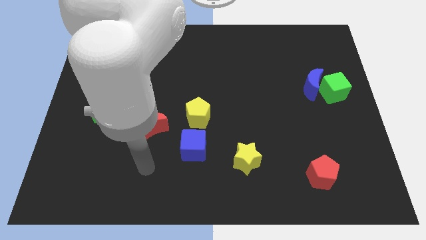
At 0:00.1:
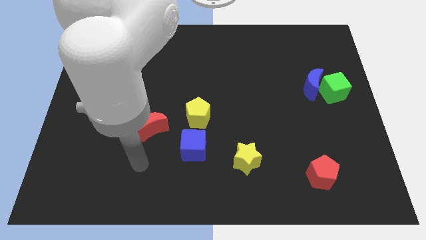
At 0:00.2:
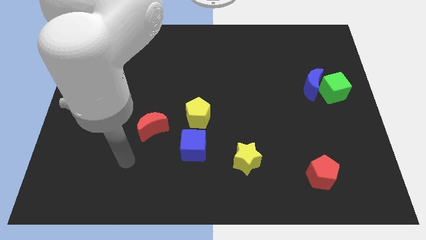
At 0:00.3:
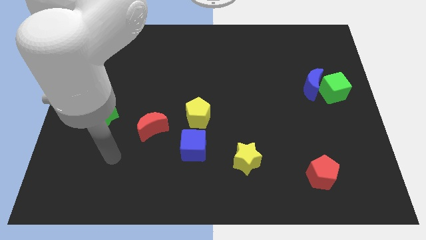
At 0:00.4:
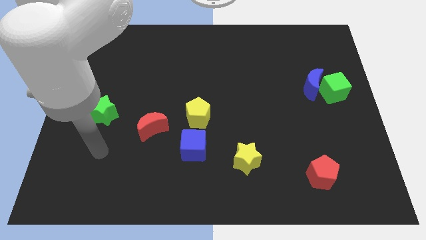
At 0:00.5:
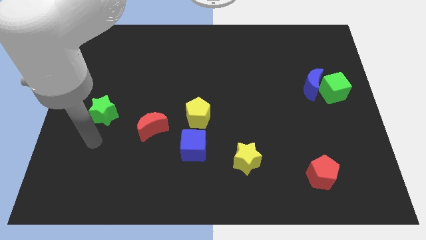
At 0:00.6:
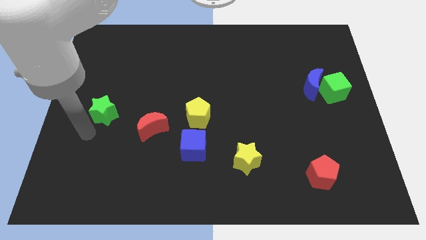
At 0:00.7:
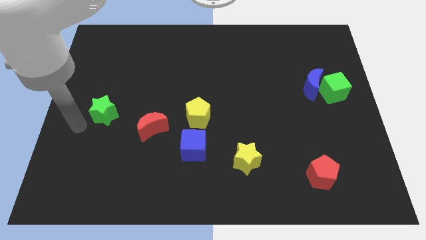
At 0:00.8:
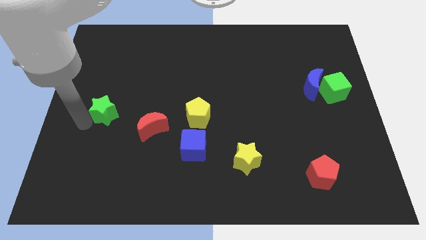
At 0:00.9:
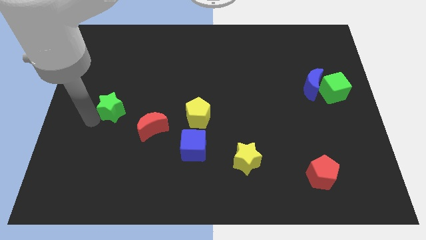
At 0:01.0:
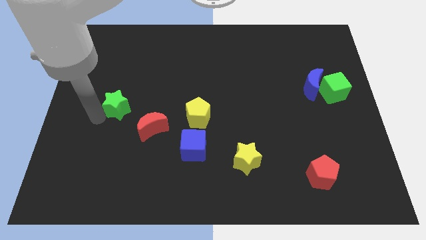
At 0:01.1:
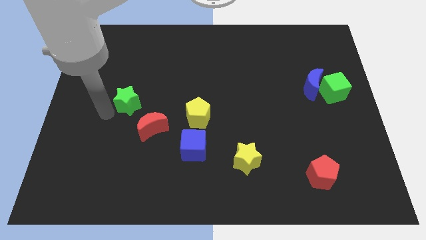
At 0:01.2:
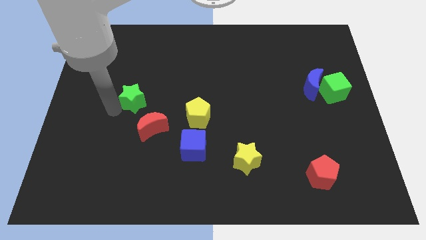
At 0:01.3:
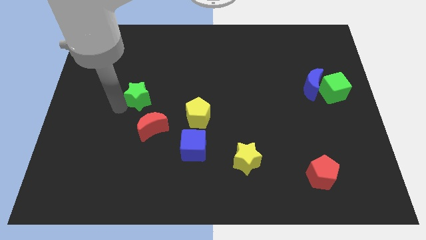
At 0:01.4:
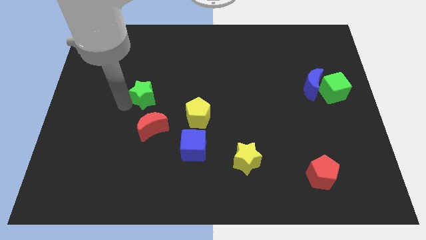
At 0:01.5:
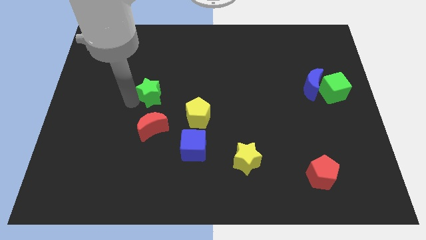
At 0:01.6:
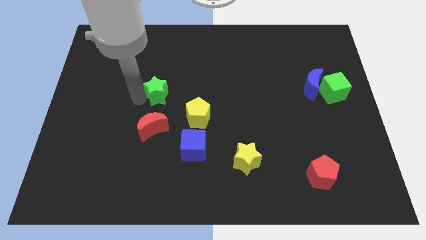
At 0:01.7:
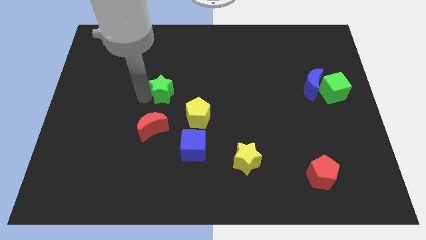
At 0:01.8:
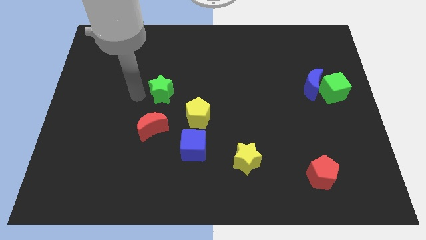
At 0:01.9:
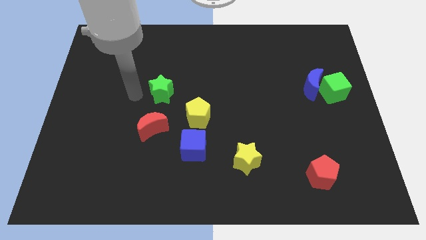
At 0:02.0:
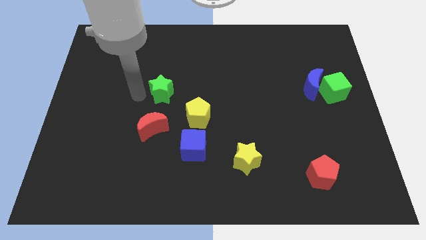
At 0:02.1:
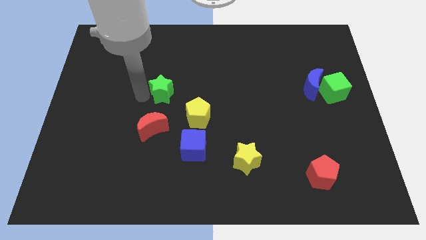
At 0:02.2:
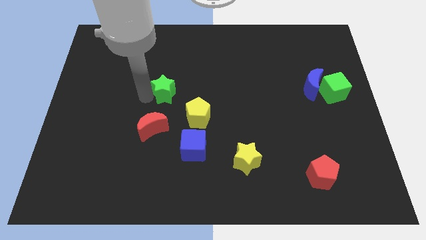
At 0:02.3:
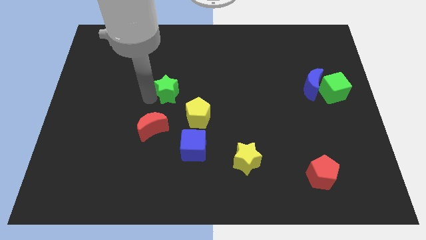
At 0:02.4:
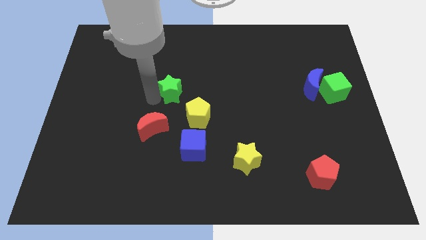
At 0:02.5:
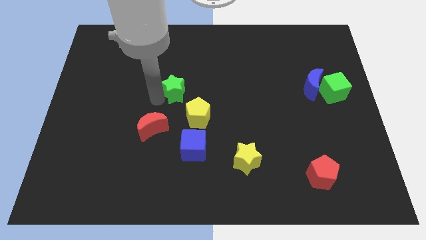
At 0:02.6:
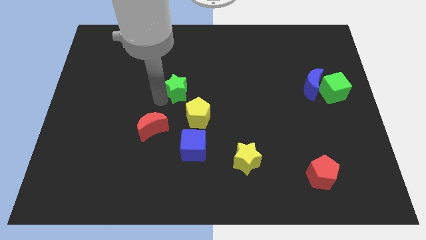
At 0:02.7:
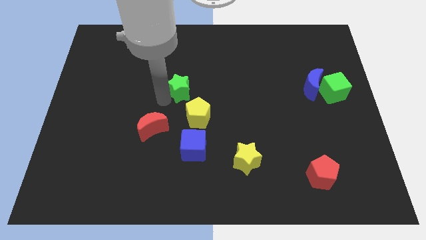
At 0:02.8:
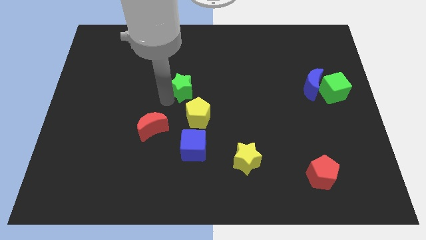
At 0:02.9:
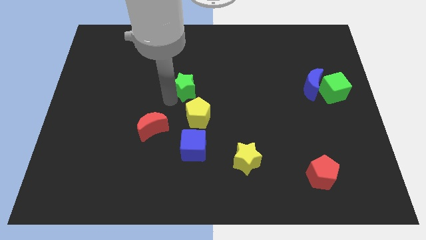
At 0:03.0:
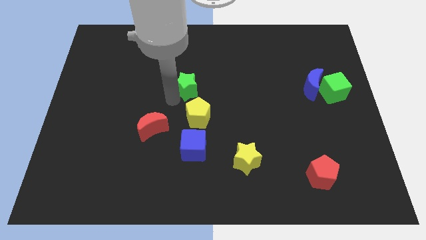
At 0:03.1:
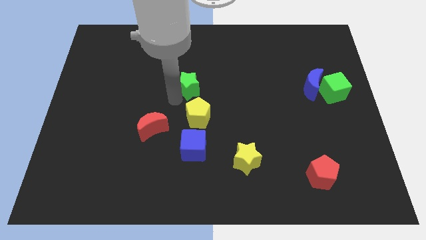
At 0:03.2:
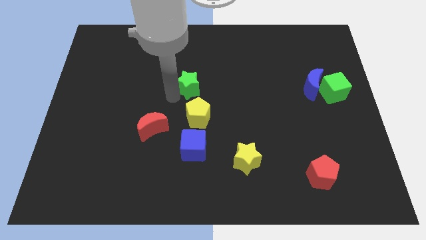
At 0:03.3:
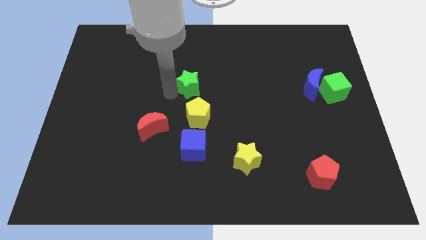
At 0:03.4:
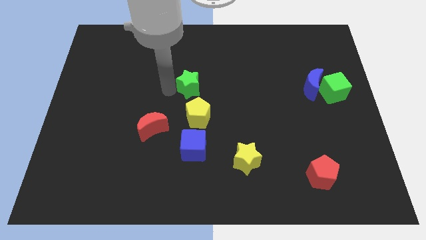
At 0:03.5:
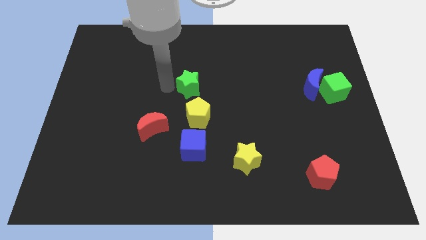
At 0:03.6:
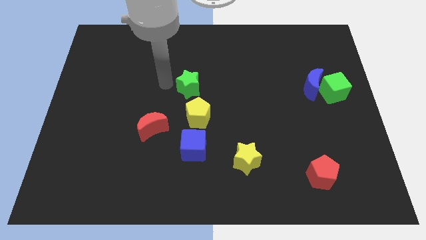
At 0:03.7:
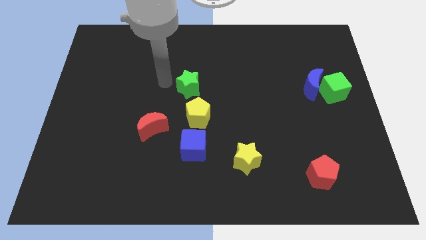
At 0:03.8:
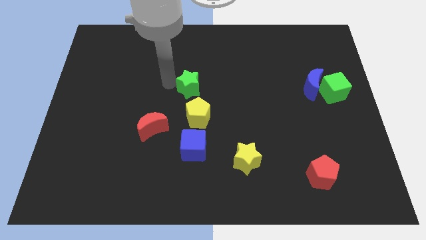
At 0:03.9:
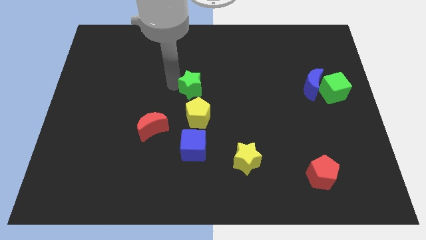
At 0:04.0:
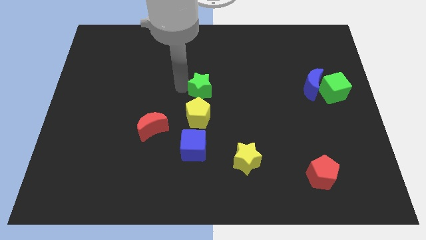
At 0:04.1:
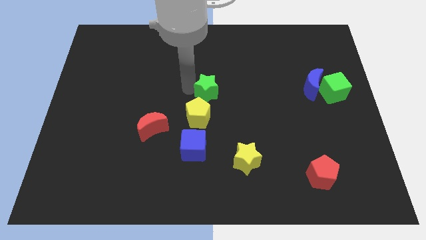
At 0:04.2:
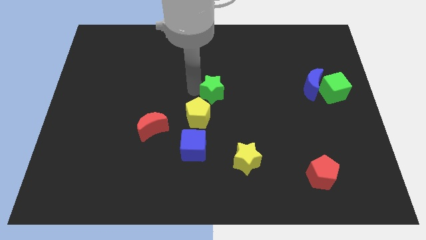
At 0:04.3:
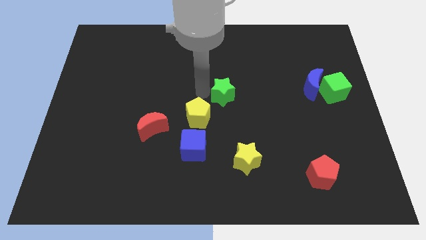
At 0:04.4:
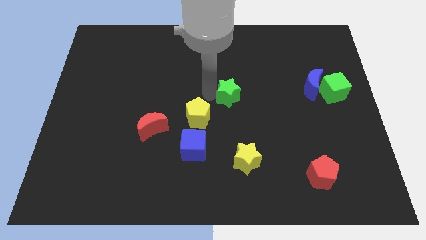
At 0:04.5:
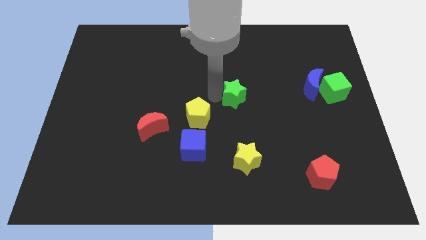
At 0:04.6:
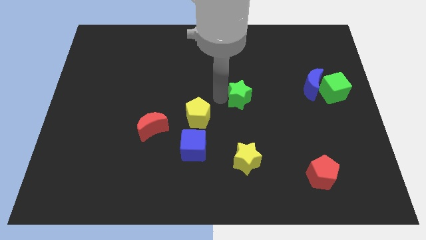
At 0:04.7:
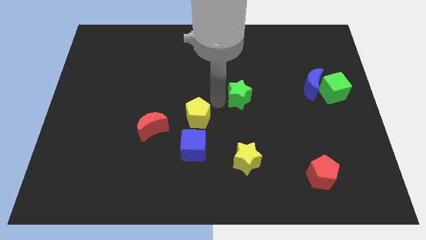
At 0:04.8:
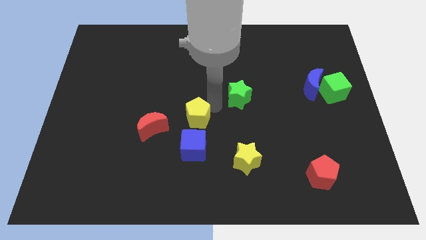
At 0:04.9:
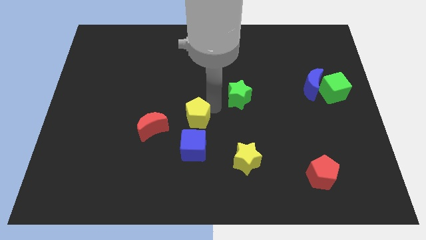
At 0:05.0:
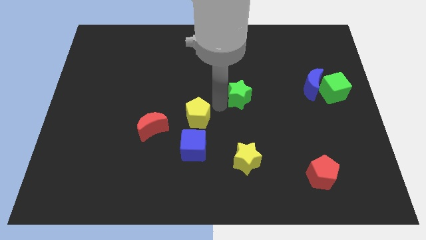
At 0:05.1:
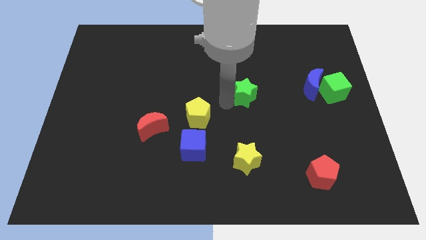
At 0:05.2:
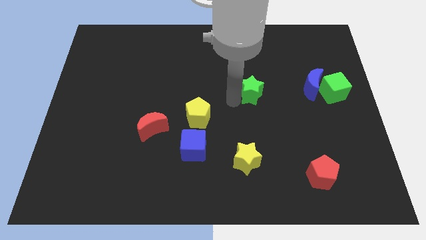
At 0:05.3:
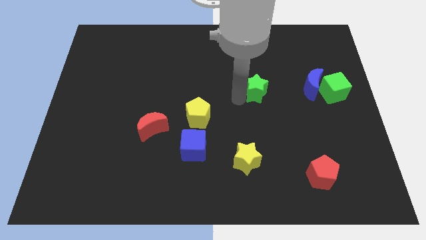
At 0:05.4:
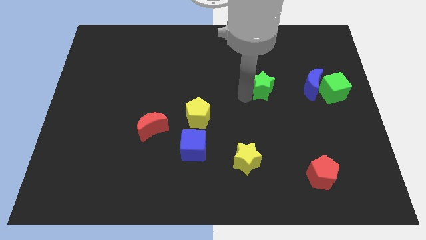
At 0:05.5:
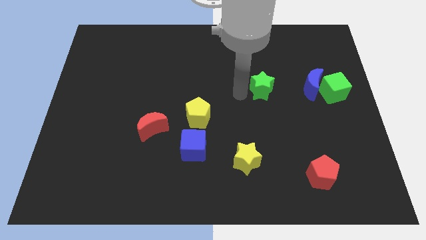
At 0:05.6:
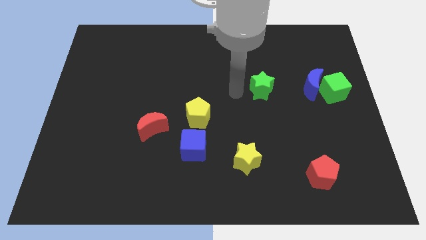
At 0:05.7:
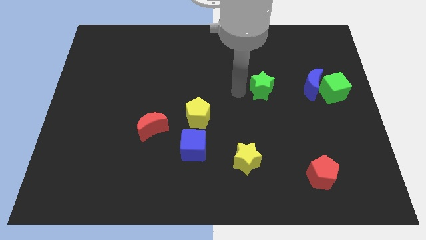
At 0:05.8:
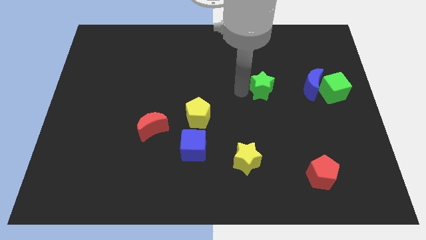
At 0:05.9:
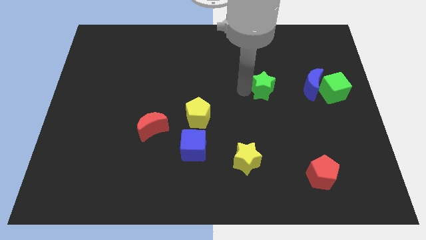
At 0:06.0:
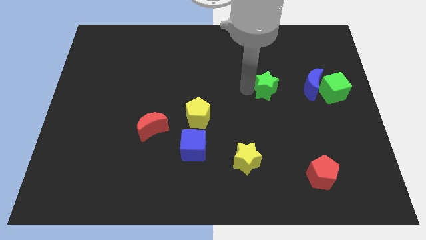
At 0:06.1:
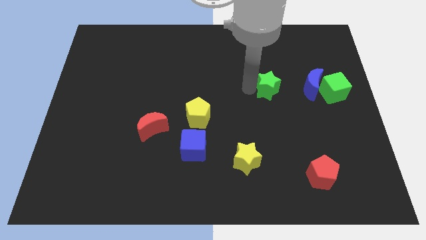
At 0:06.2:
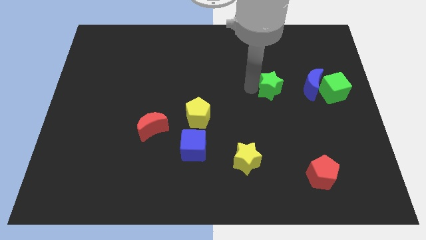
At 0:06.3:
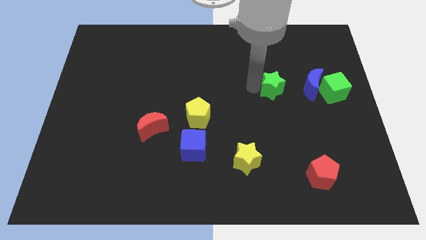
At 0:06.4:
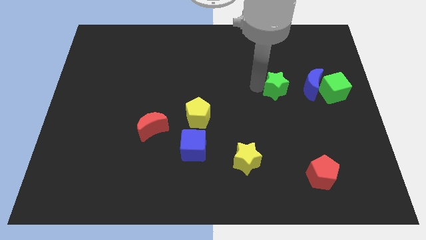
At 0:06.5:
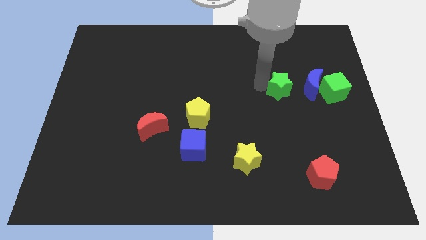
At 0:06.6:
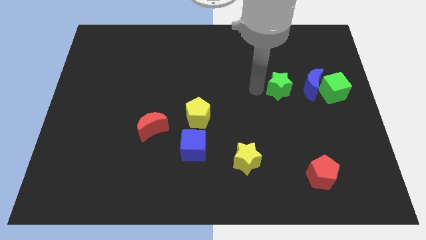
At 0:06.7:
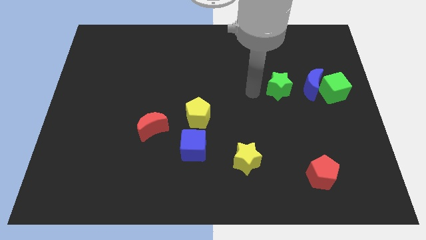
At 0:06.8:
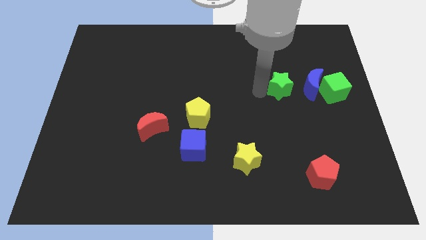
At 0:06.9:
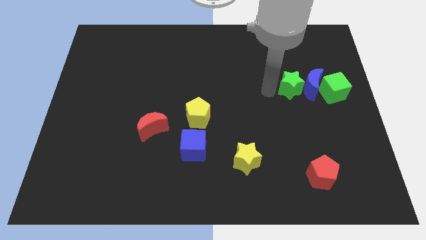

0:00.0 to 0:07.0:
push the green star to the blue moon
